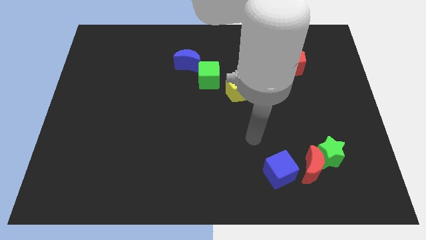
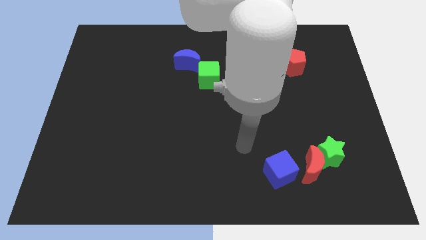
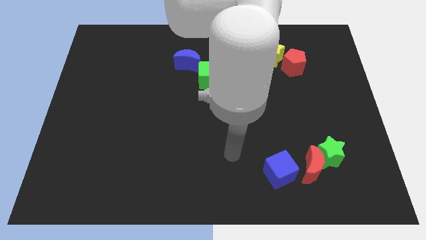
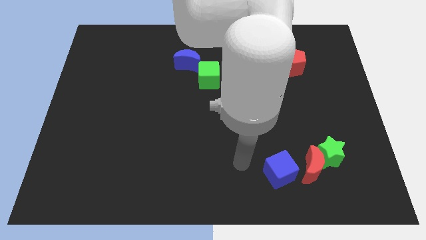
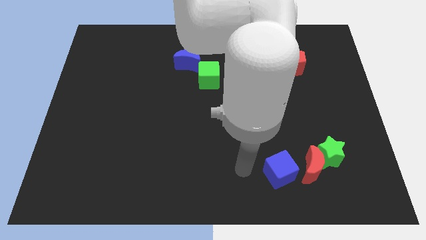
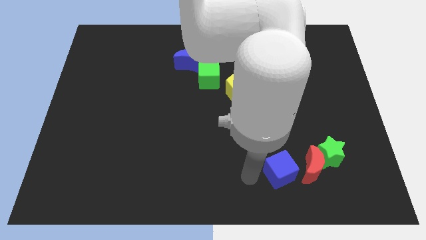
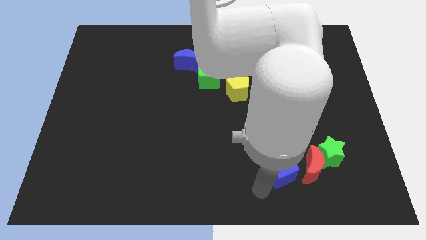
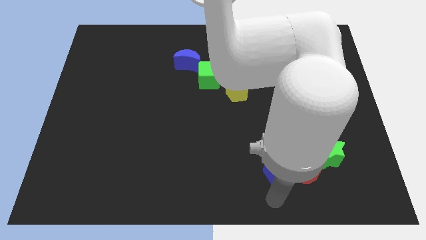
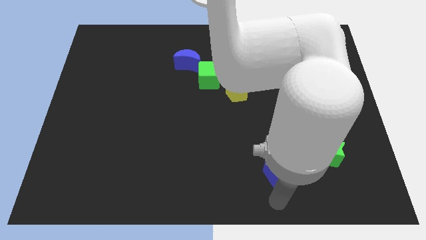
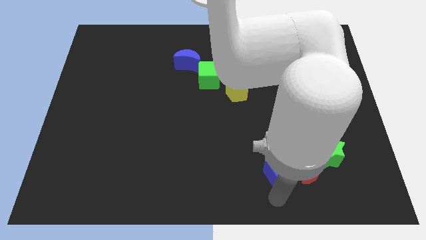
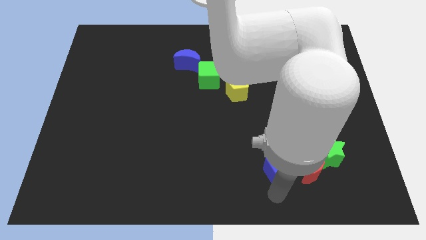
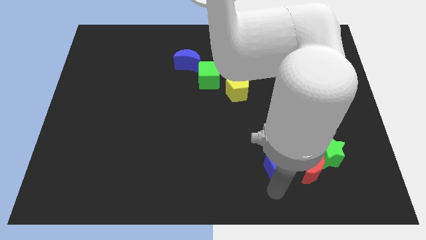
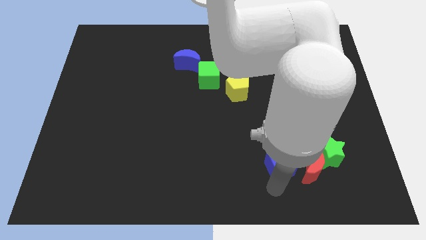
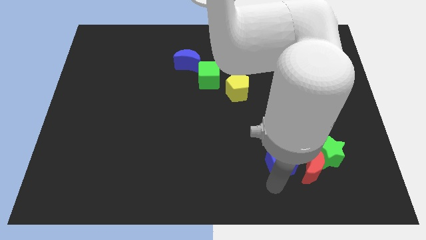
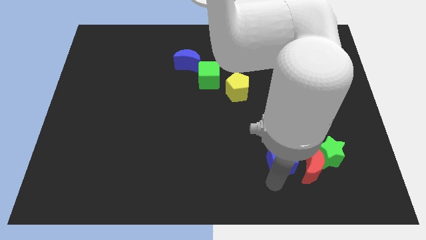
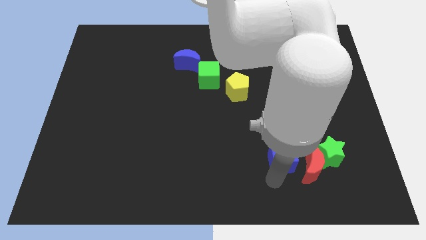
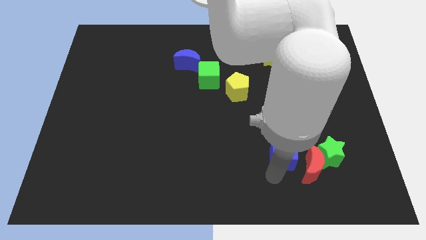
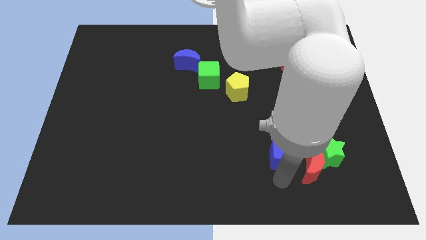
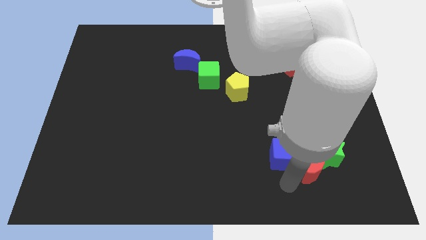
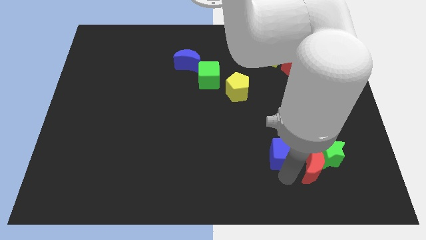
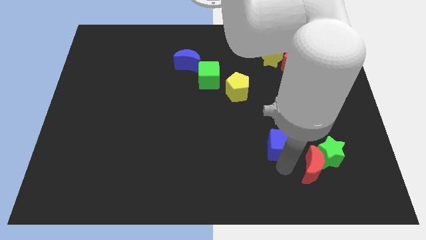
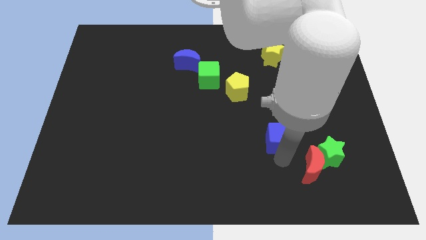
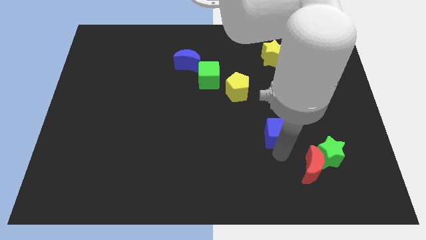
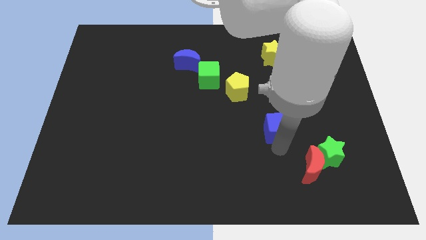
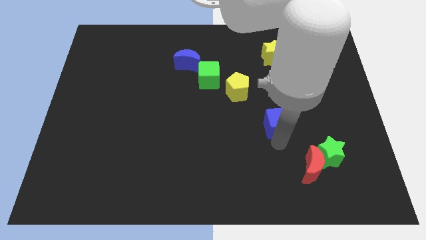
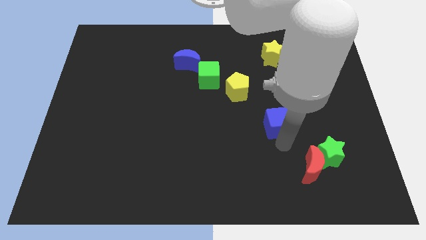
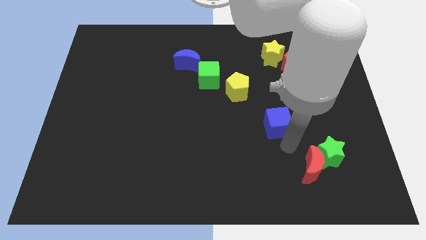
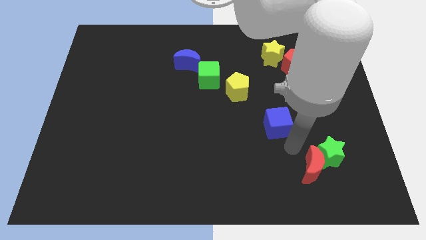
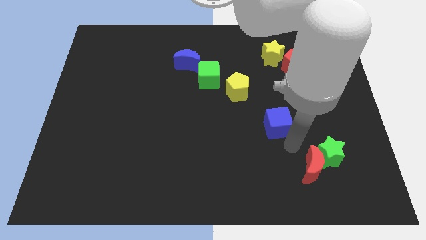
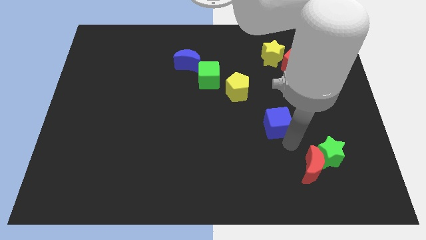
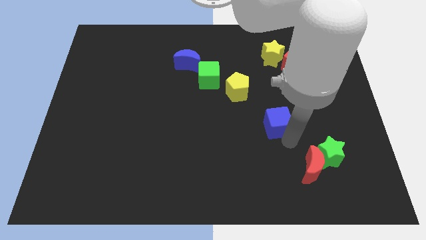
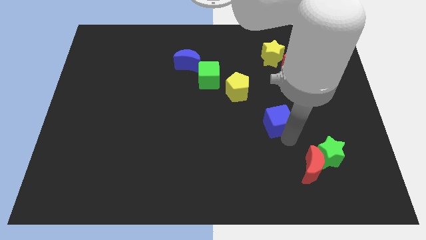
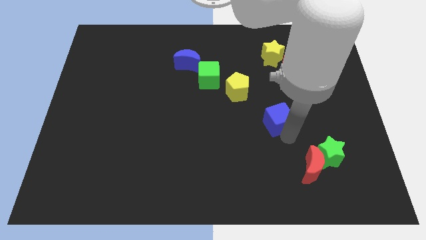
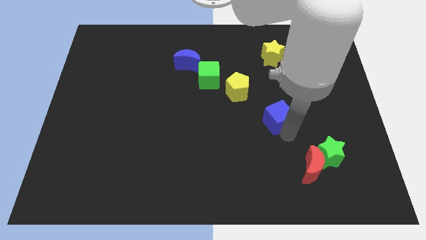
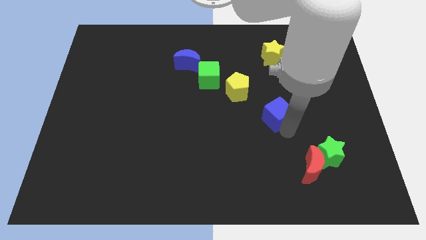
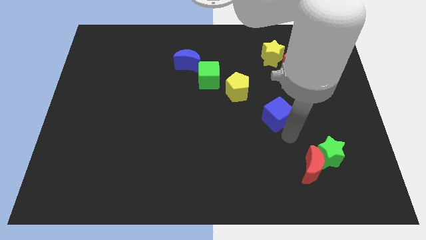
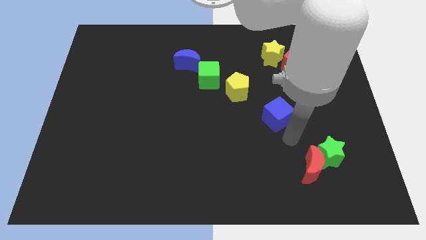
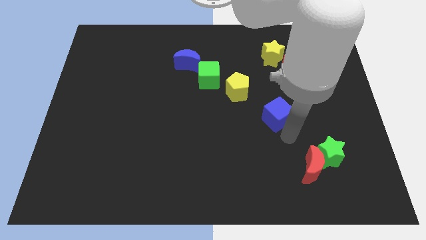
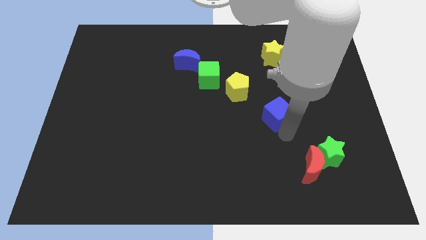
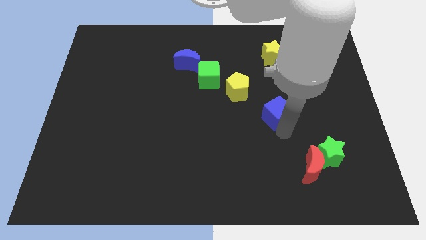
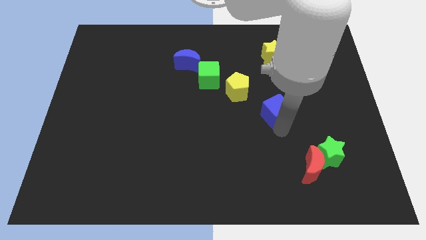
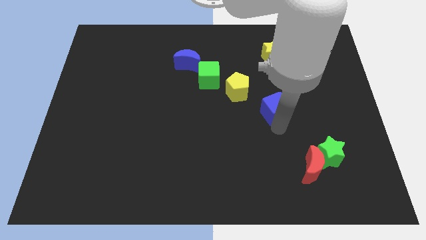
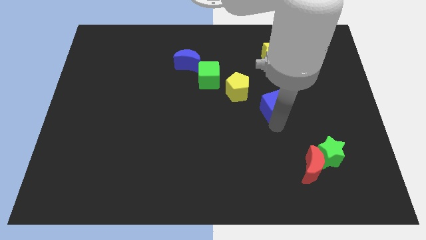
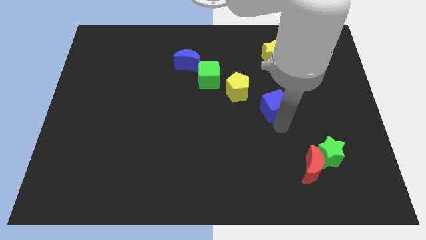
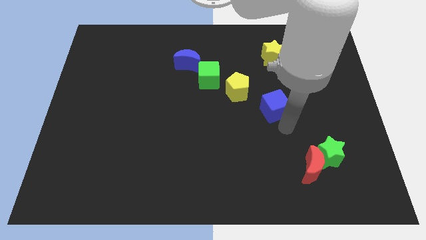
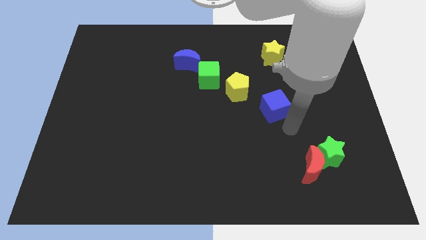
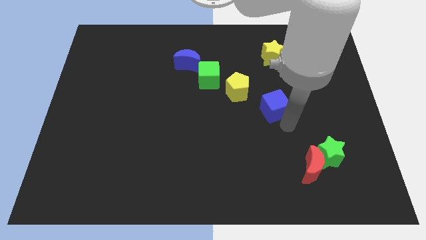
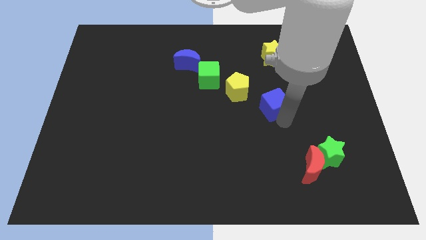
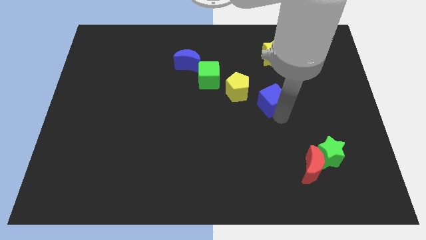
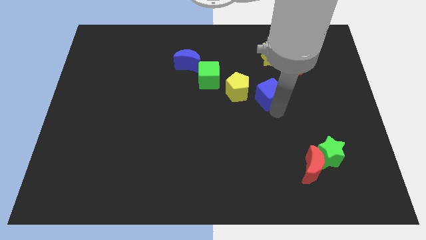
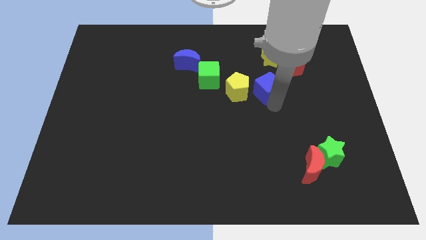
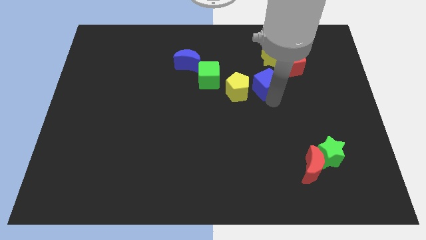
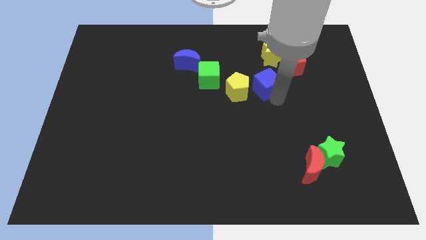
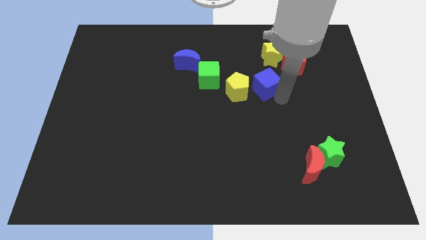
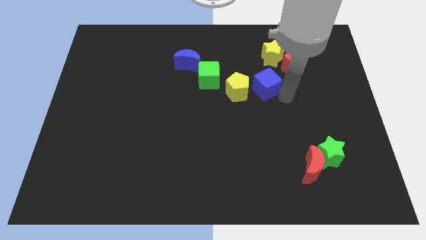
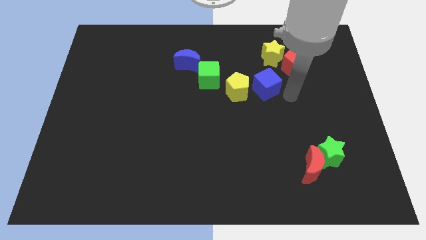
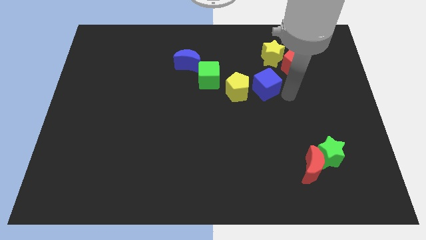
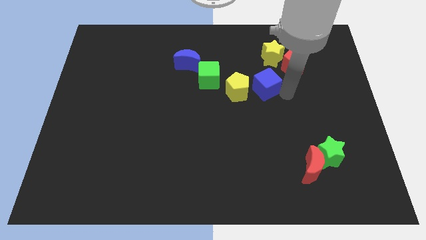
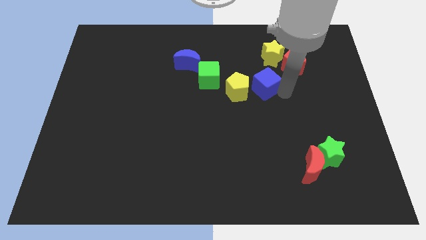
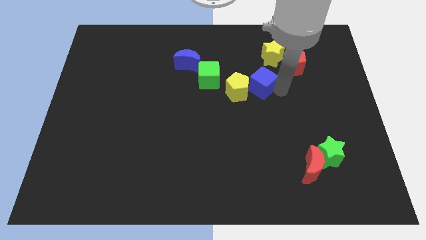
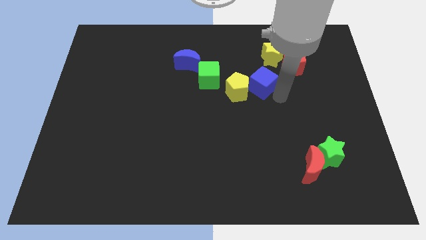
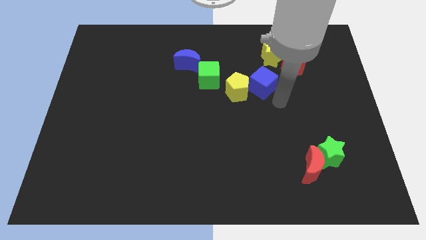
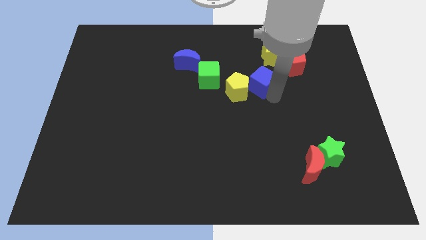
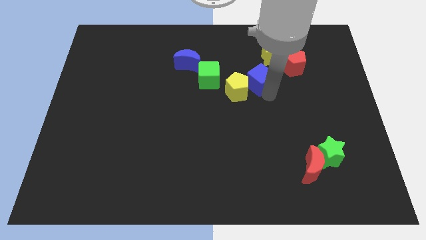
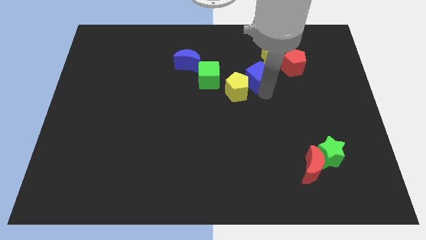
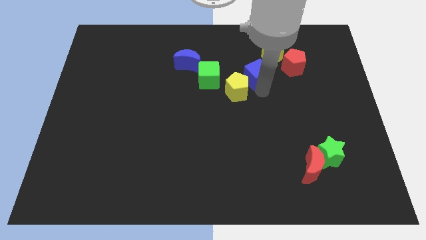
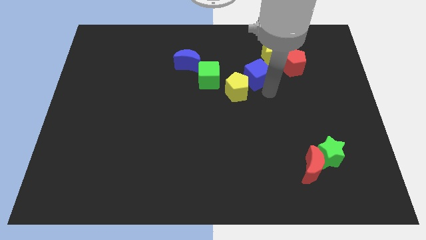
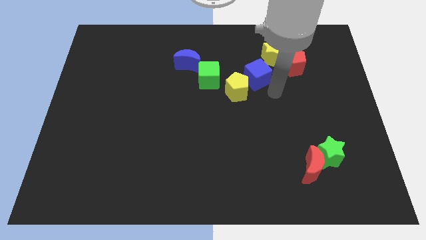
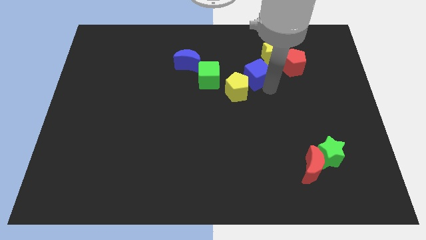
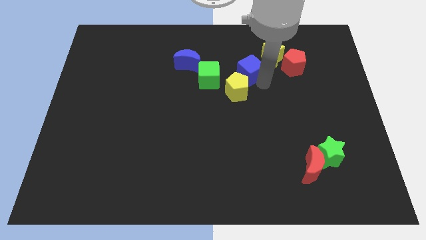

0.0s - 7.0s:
move the blue cube to the top side of the yellow pentagon

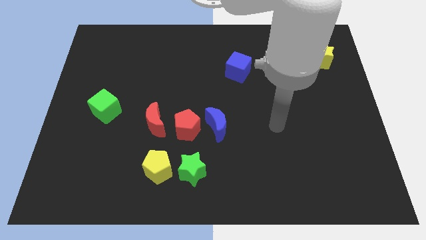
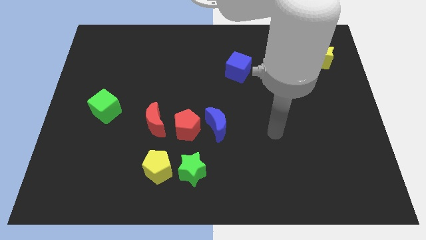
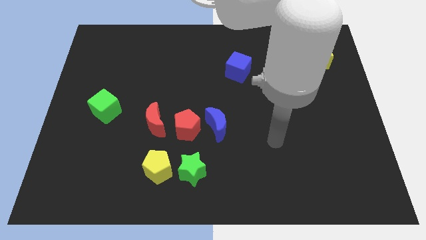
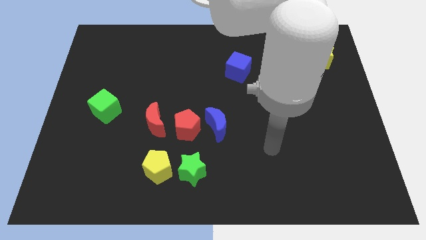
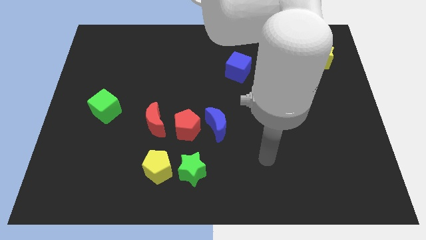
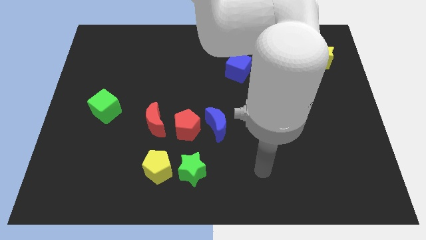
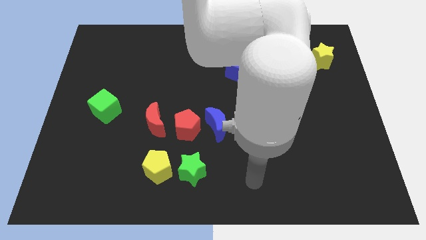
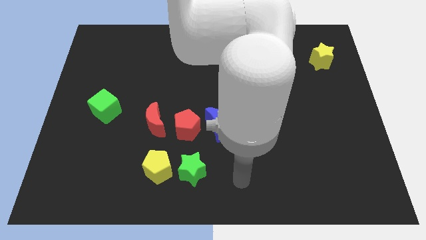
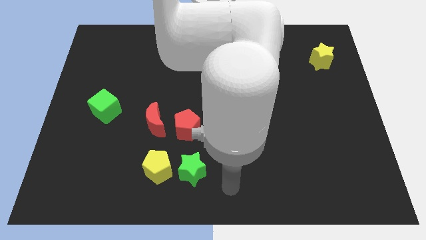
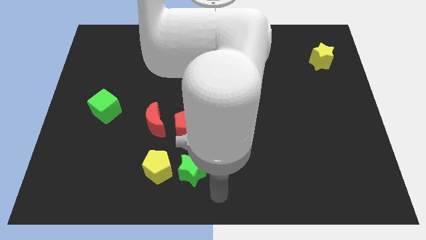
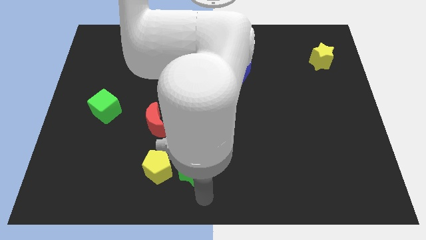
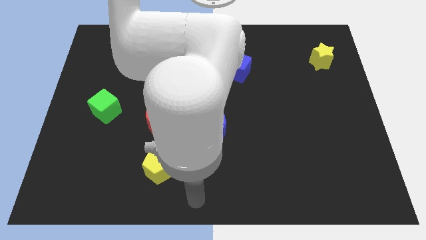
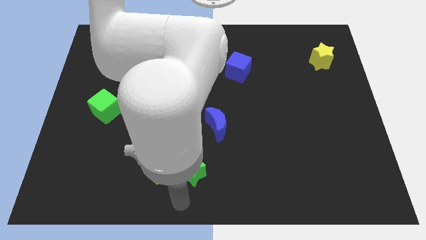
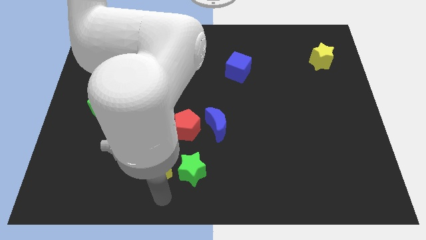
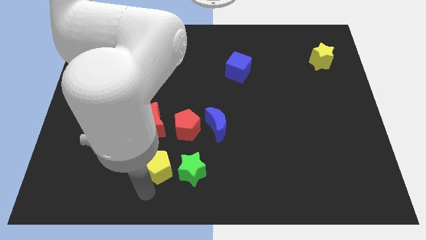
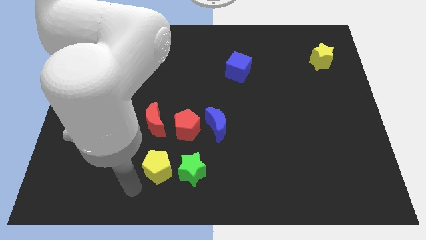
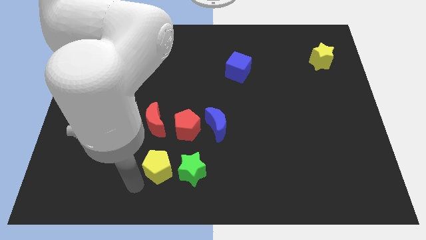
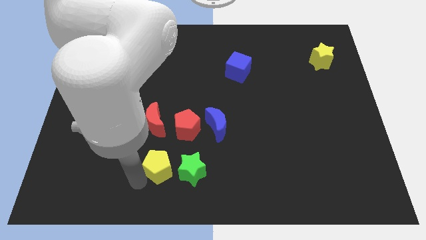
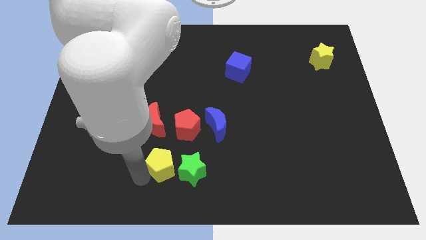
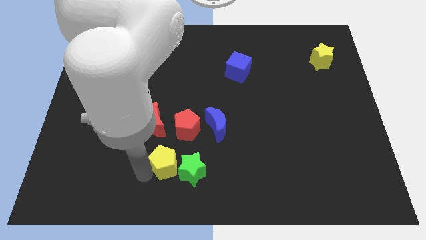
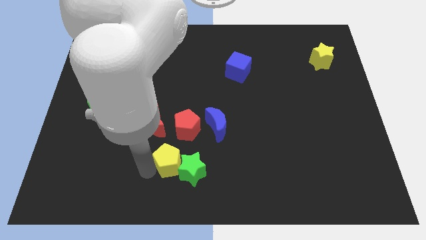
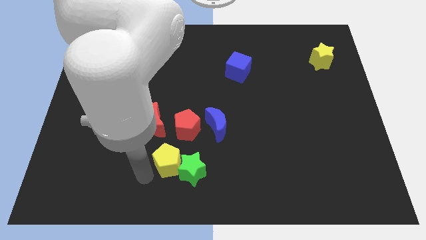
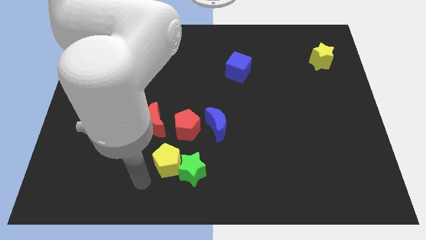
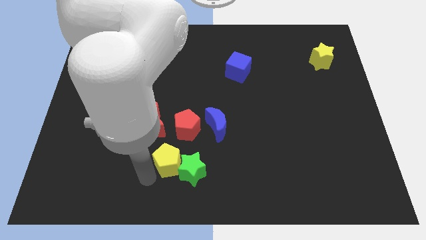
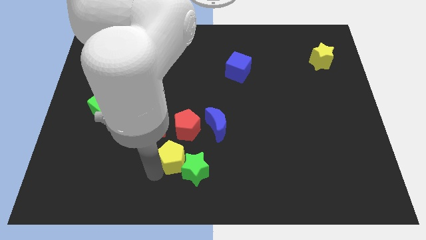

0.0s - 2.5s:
move the yellow pentagon to the bottom left of the blue moon
